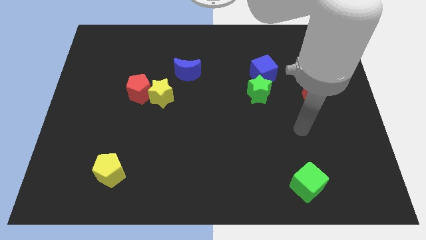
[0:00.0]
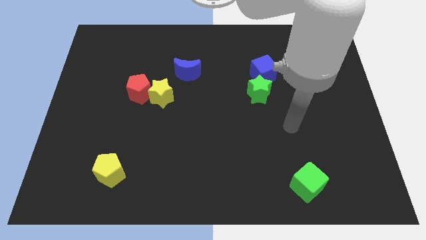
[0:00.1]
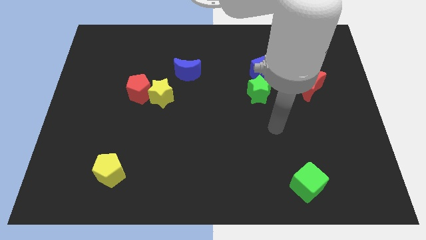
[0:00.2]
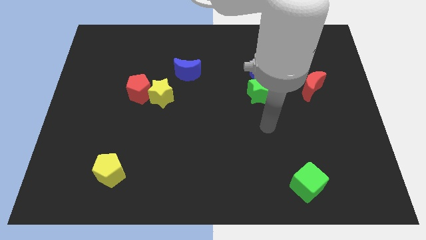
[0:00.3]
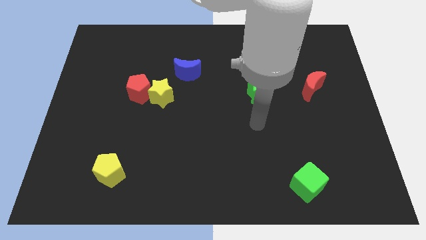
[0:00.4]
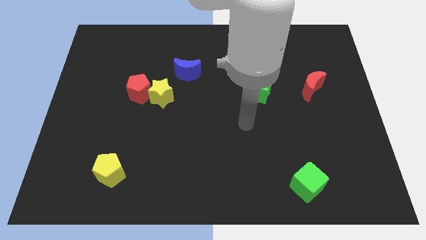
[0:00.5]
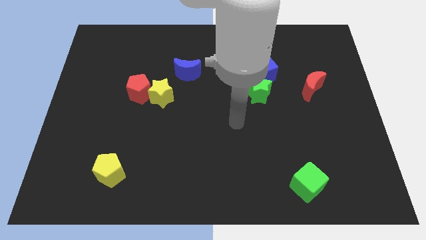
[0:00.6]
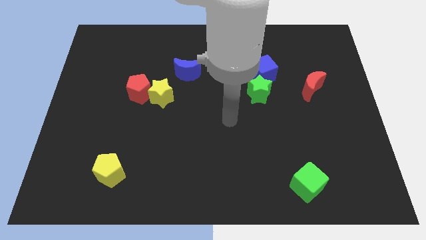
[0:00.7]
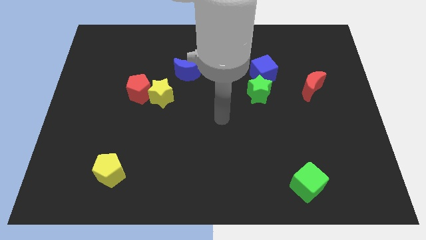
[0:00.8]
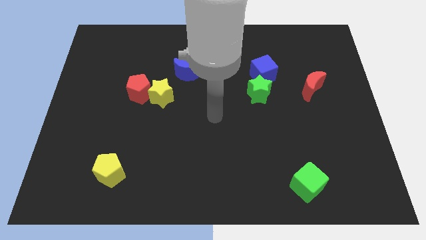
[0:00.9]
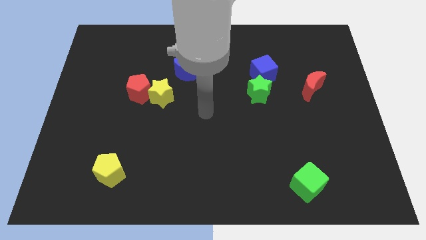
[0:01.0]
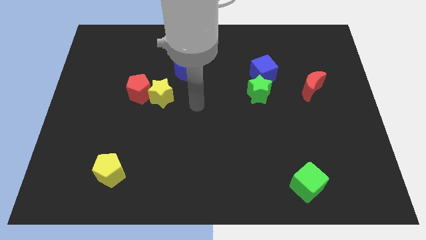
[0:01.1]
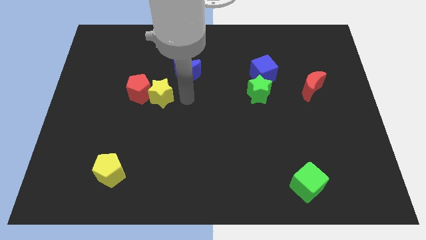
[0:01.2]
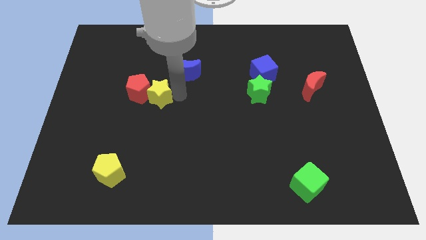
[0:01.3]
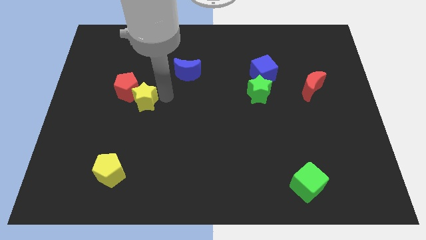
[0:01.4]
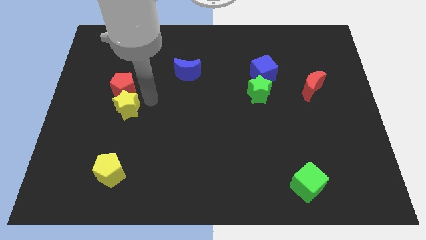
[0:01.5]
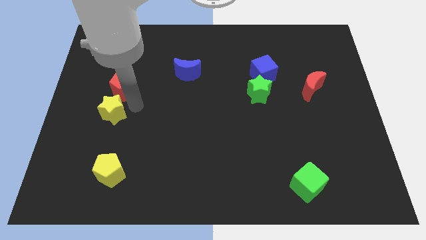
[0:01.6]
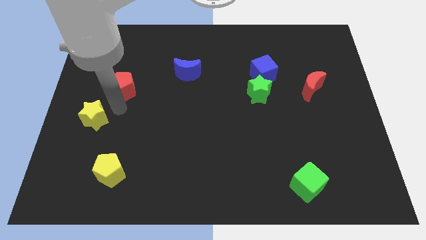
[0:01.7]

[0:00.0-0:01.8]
pull the red pentagon apart from the yellow star

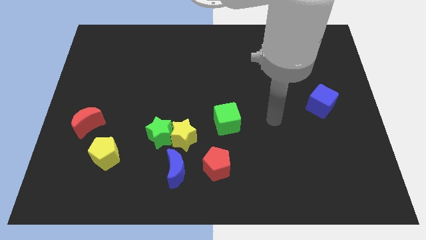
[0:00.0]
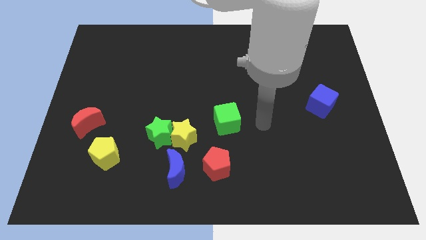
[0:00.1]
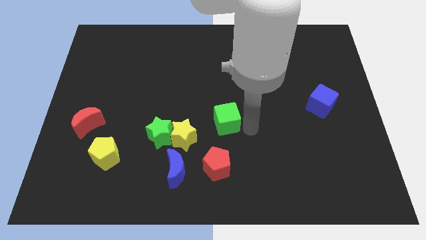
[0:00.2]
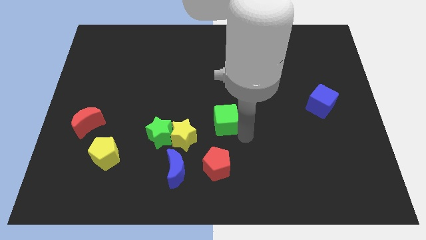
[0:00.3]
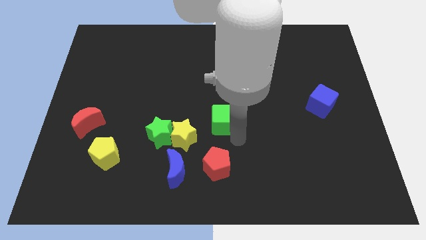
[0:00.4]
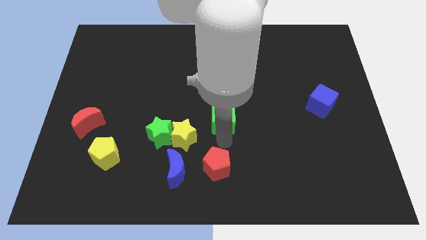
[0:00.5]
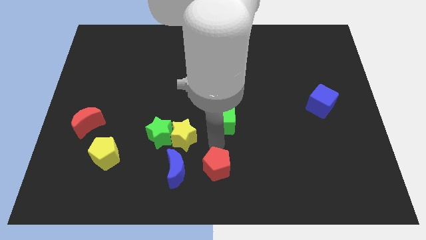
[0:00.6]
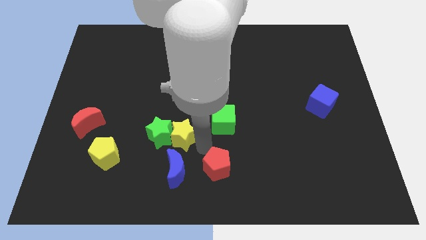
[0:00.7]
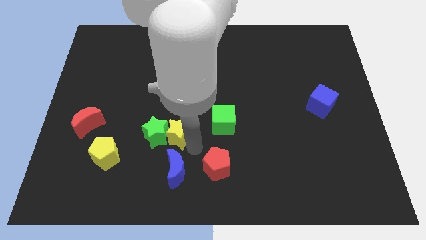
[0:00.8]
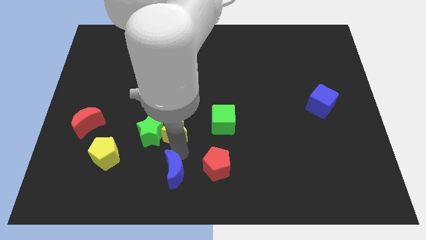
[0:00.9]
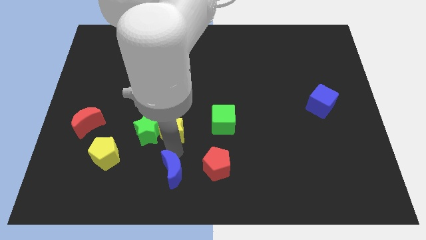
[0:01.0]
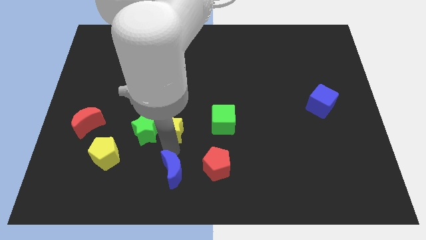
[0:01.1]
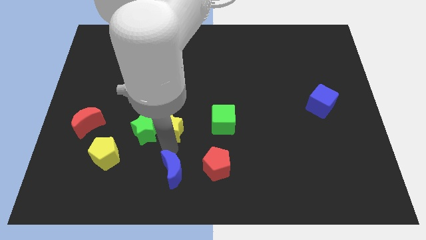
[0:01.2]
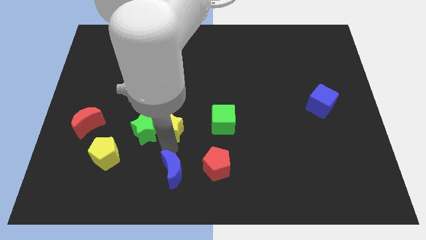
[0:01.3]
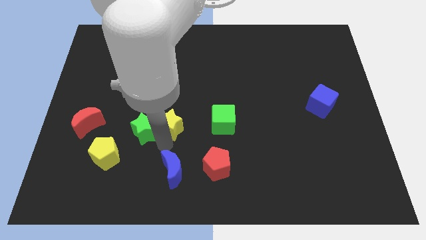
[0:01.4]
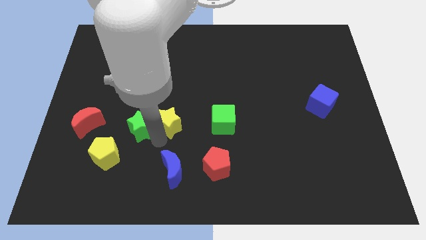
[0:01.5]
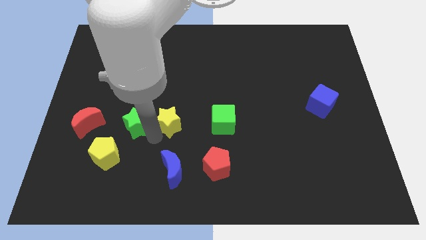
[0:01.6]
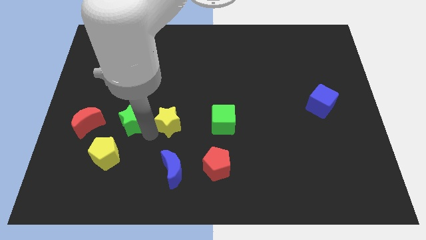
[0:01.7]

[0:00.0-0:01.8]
separate the green star from the yellow star and blue moon

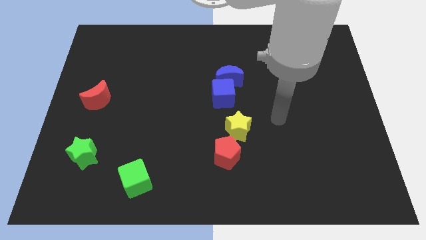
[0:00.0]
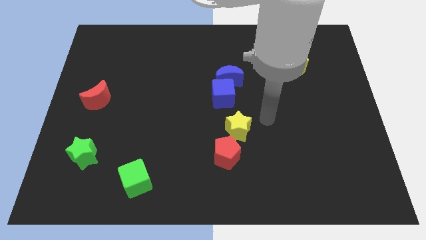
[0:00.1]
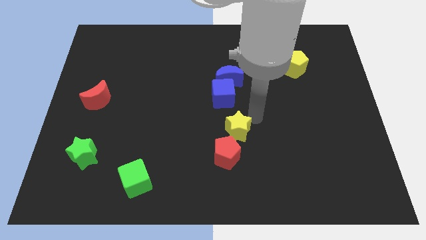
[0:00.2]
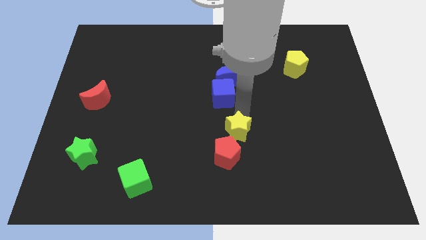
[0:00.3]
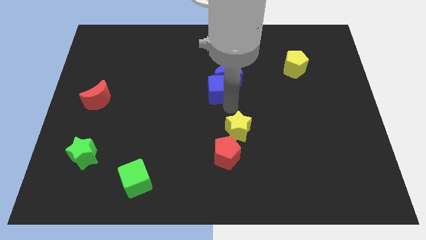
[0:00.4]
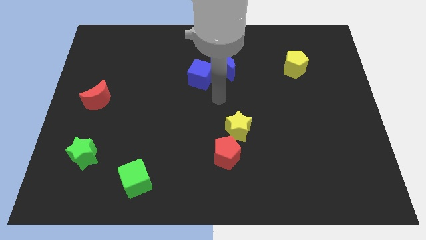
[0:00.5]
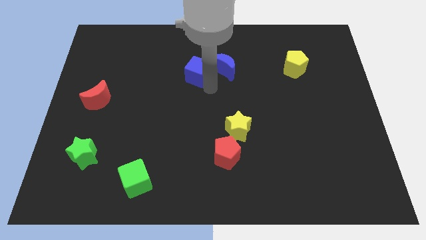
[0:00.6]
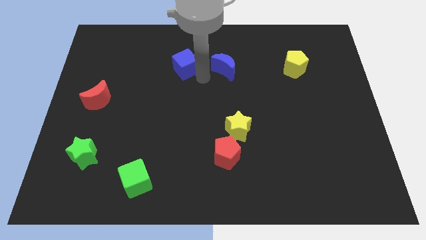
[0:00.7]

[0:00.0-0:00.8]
move the blue moon away from the blue cube

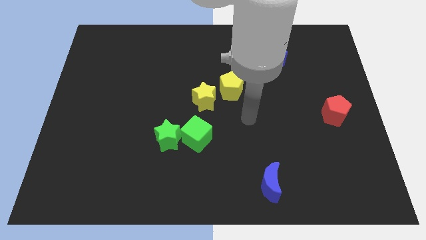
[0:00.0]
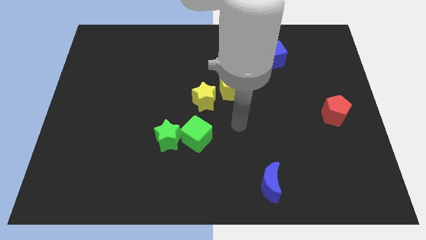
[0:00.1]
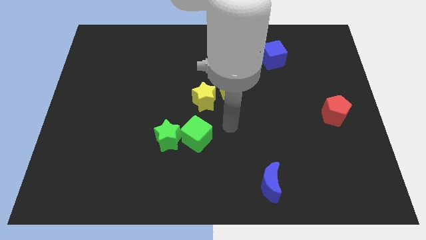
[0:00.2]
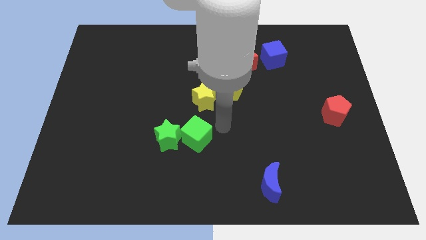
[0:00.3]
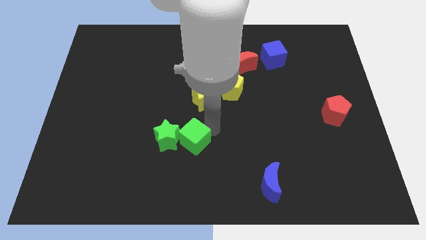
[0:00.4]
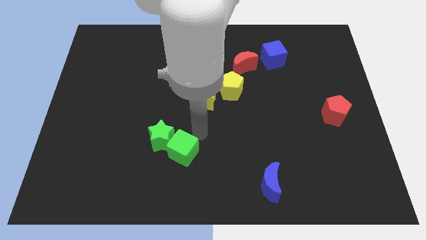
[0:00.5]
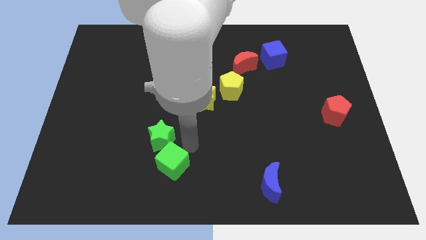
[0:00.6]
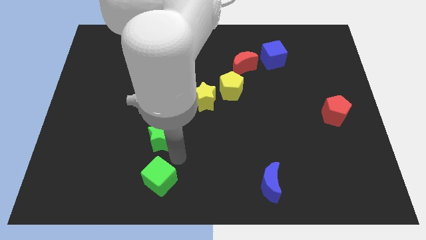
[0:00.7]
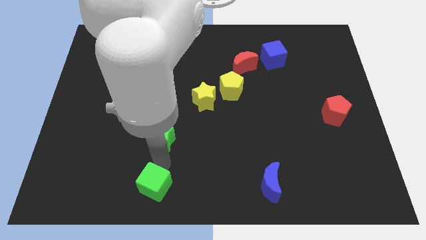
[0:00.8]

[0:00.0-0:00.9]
separate the green star from the green cube

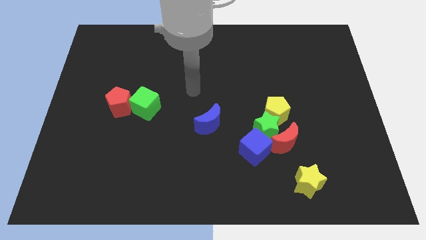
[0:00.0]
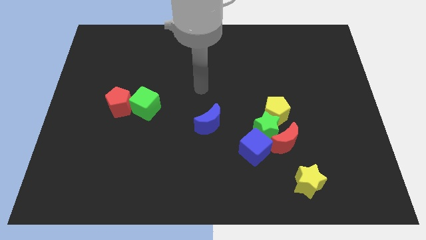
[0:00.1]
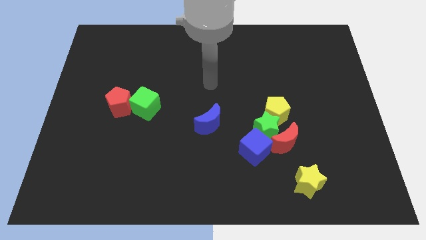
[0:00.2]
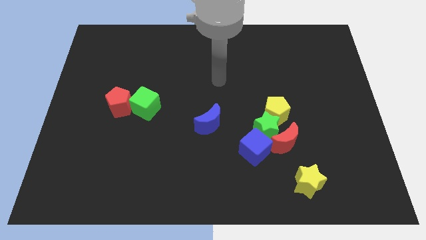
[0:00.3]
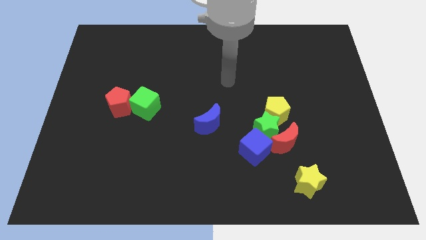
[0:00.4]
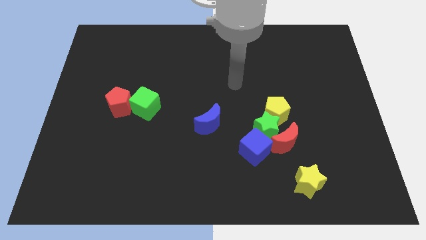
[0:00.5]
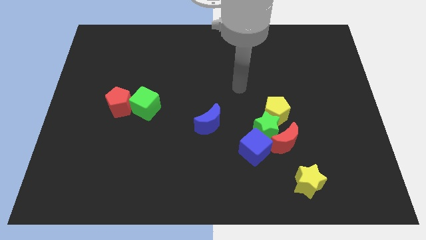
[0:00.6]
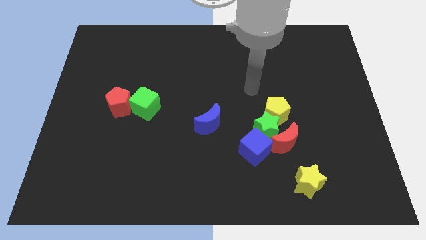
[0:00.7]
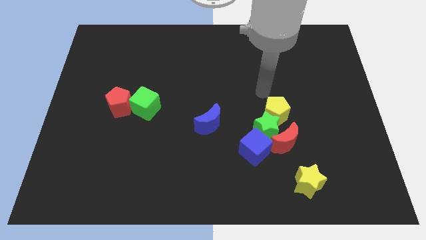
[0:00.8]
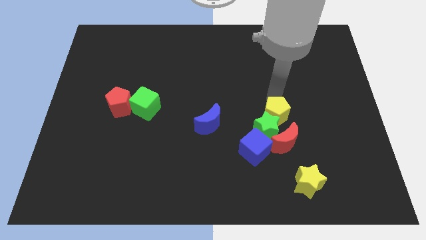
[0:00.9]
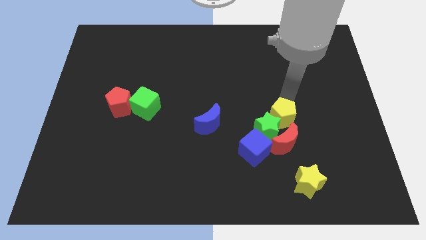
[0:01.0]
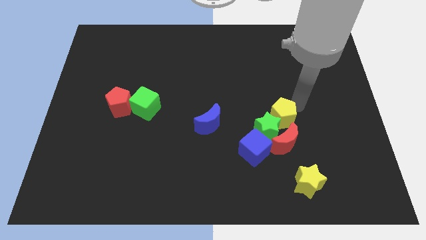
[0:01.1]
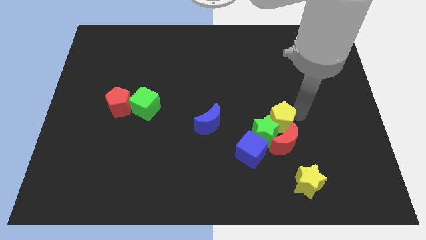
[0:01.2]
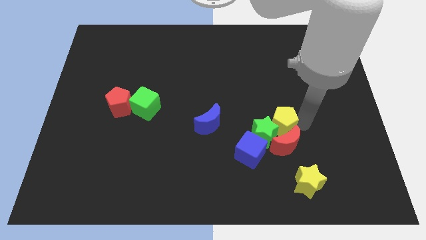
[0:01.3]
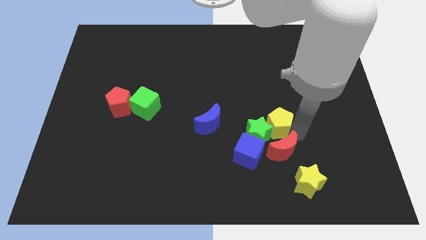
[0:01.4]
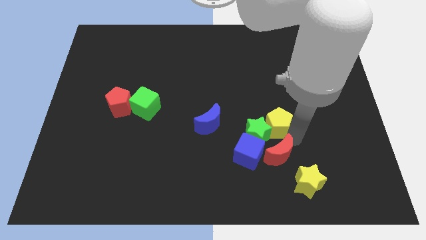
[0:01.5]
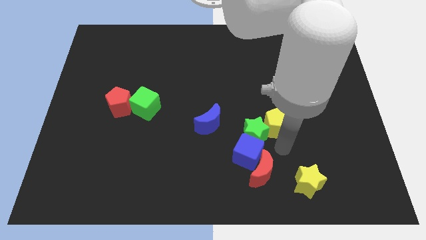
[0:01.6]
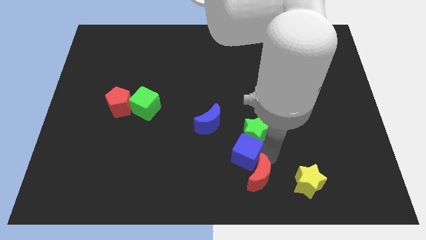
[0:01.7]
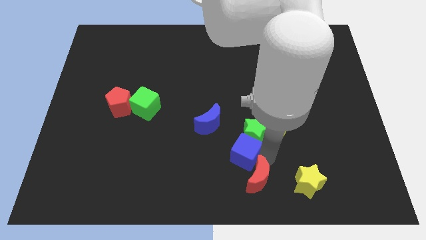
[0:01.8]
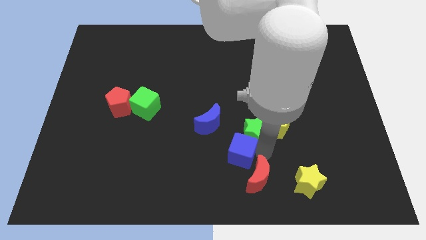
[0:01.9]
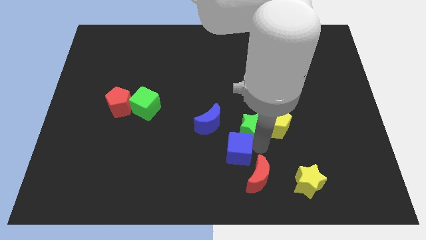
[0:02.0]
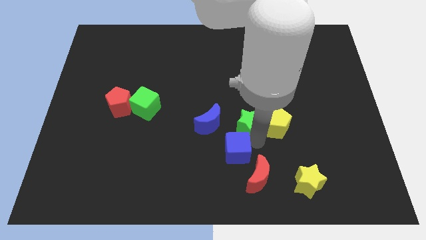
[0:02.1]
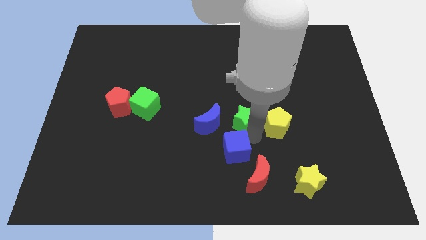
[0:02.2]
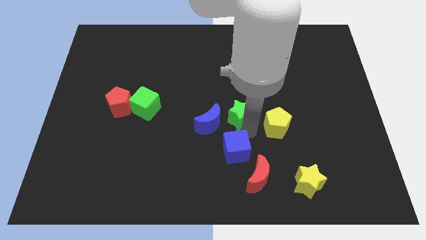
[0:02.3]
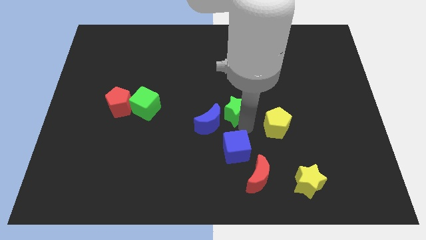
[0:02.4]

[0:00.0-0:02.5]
move the green star away from the clump

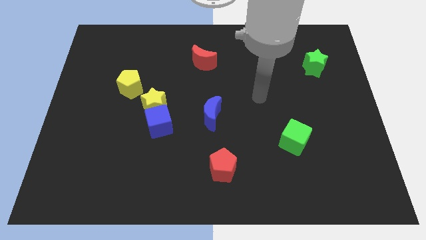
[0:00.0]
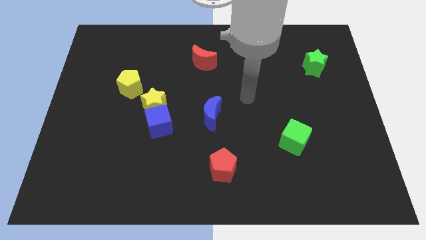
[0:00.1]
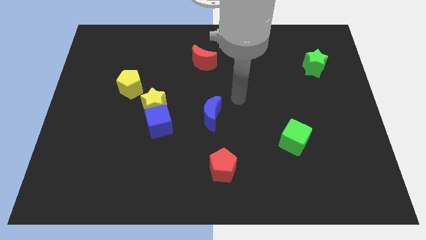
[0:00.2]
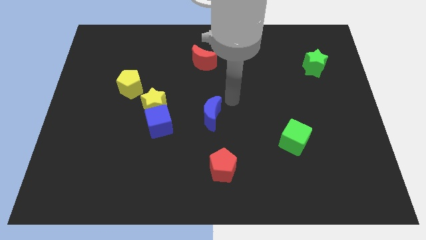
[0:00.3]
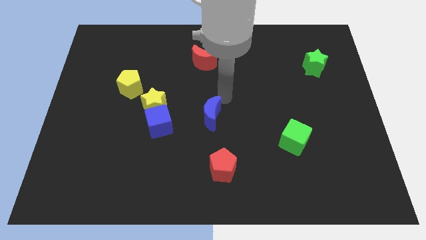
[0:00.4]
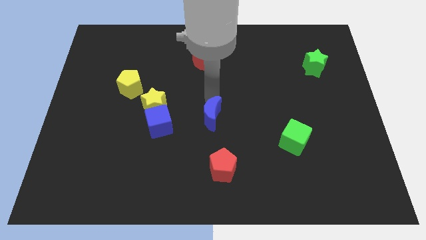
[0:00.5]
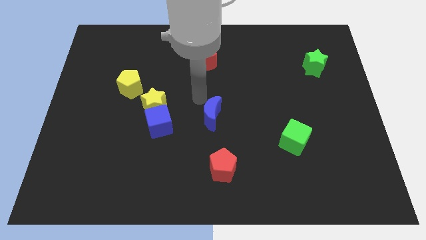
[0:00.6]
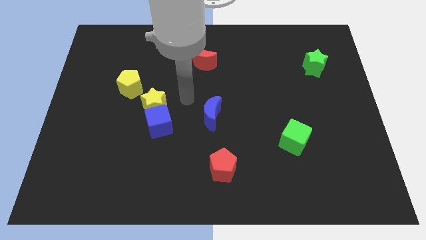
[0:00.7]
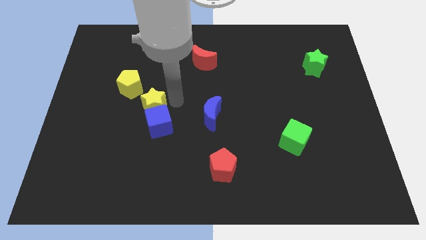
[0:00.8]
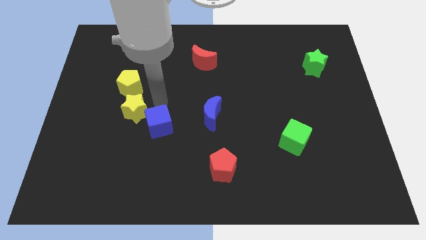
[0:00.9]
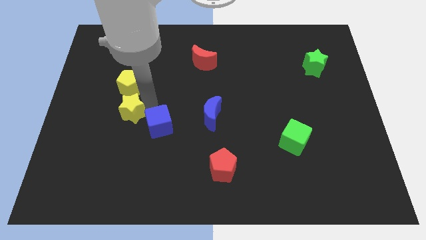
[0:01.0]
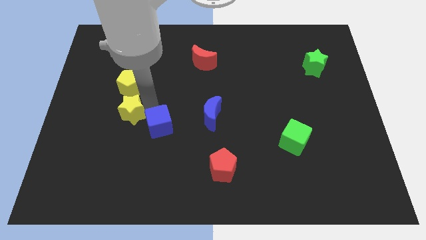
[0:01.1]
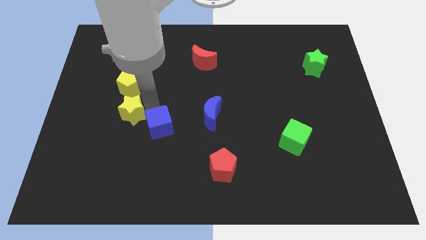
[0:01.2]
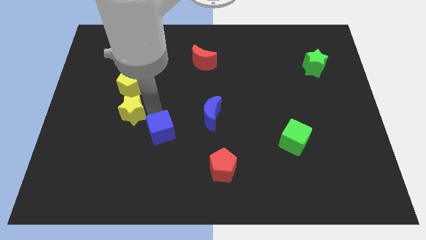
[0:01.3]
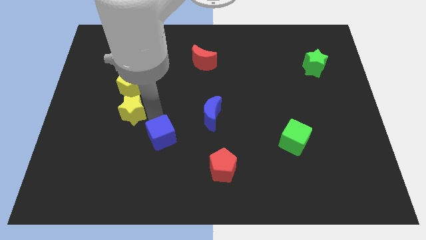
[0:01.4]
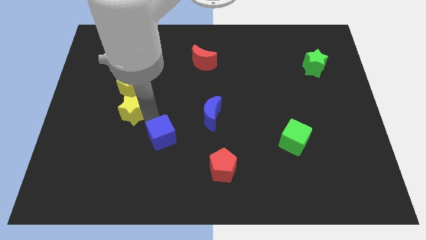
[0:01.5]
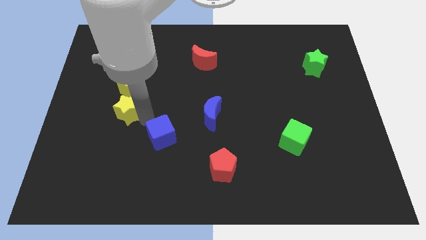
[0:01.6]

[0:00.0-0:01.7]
separate the blue cube from the yellow star
